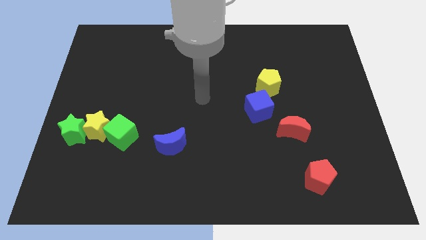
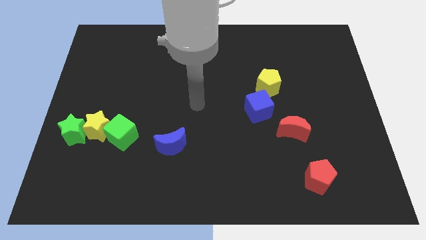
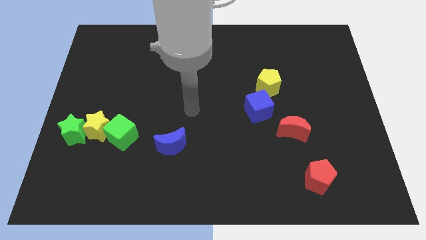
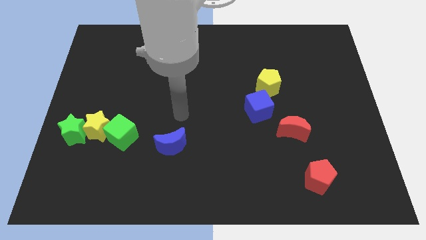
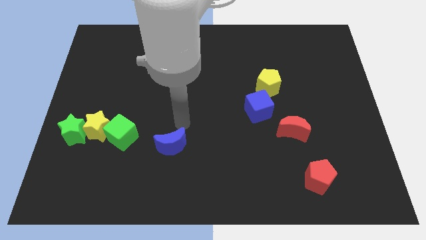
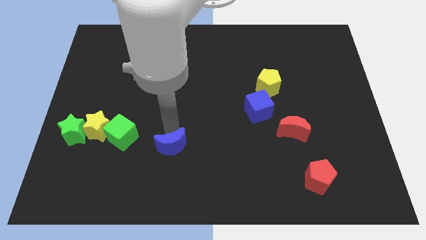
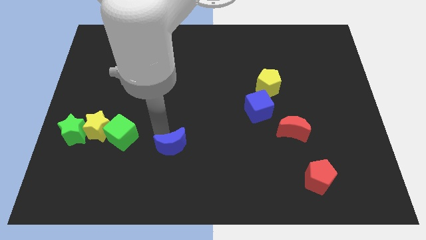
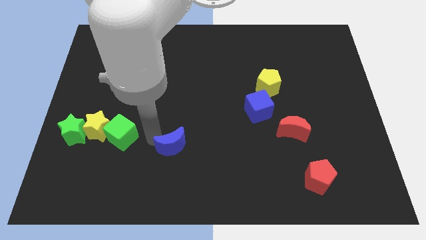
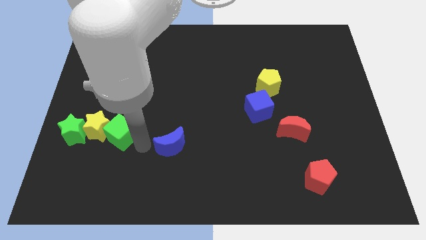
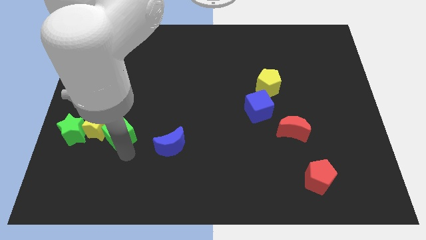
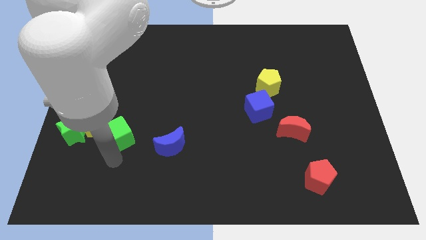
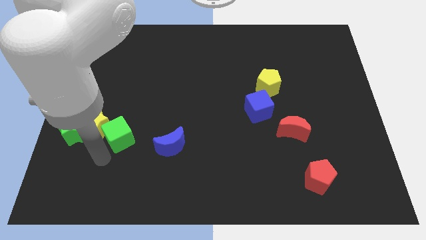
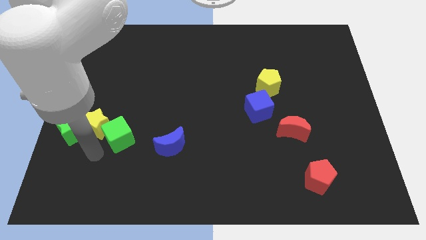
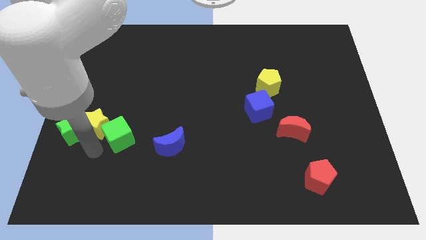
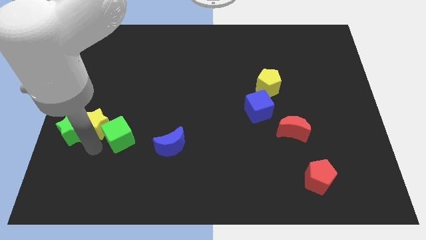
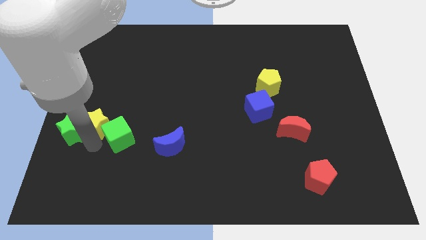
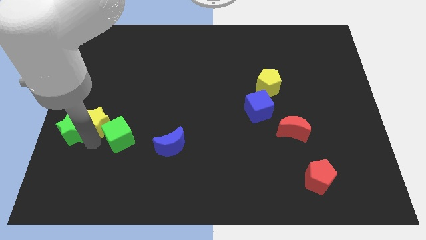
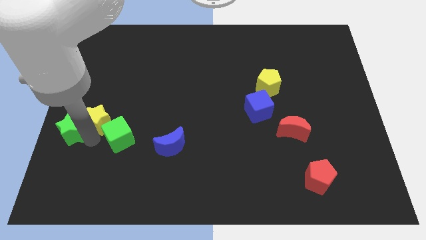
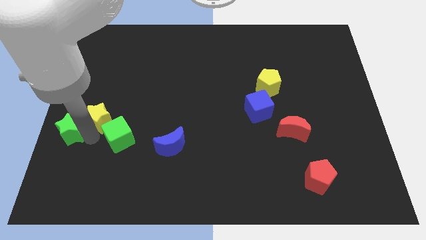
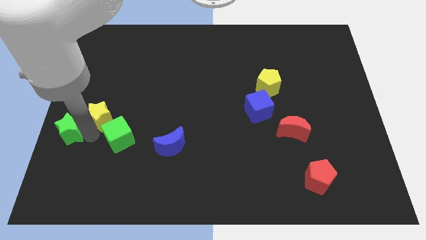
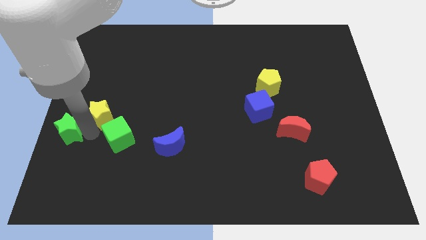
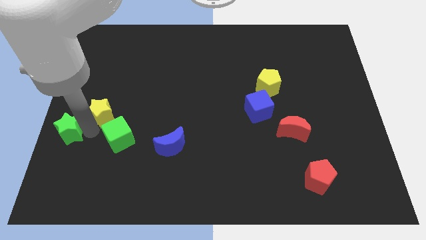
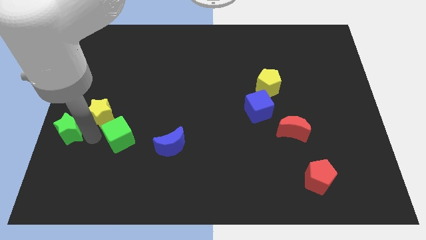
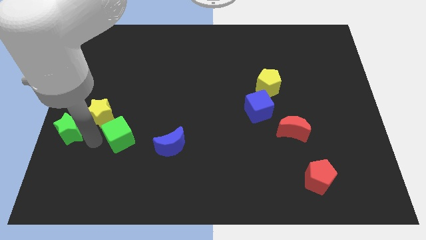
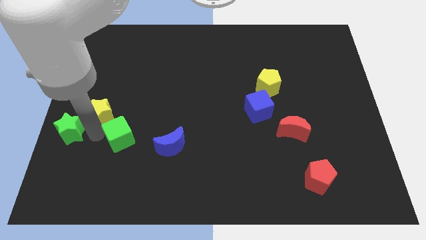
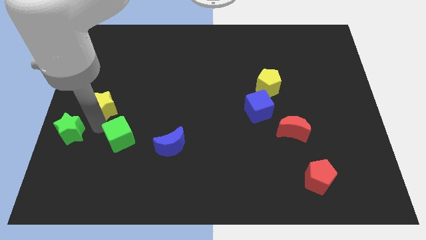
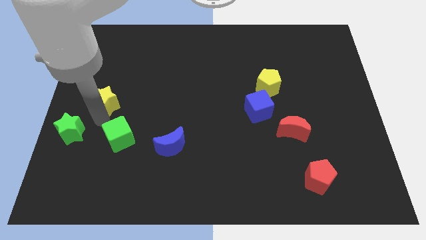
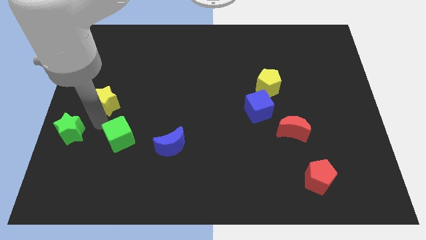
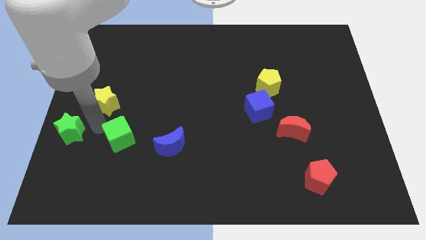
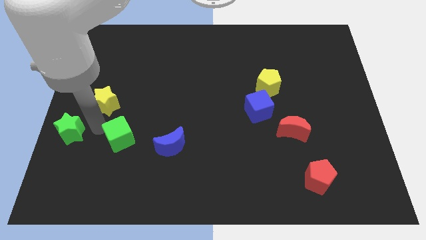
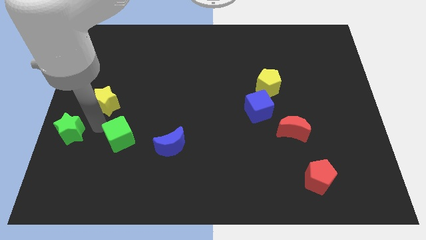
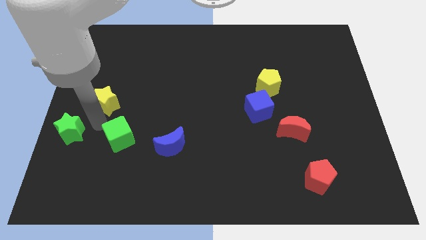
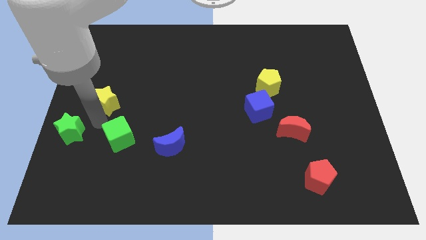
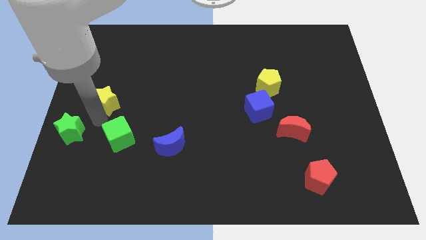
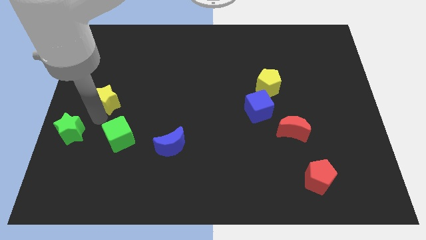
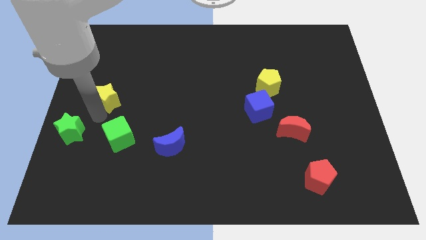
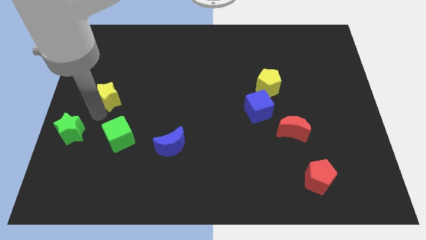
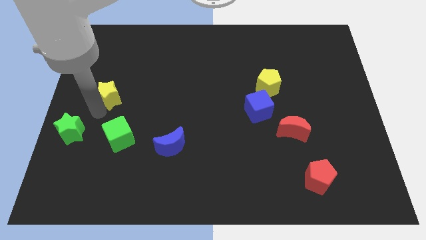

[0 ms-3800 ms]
separate the yellow star from the green star and green cube

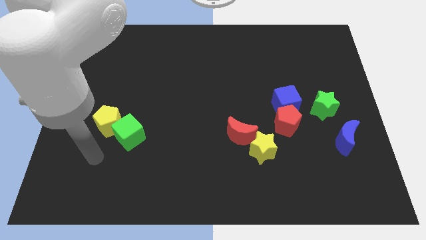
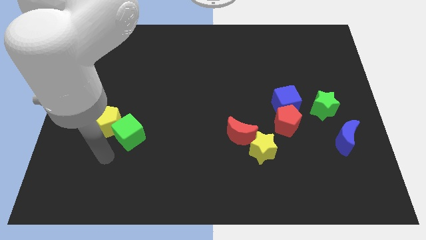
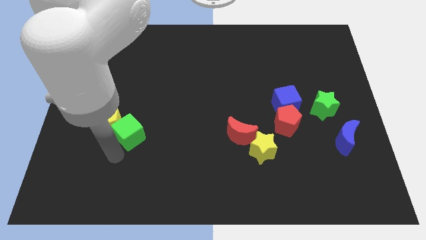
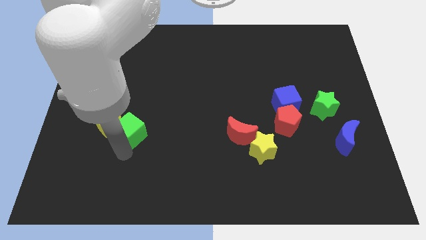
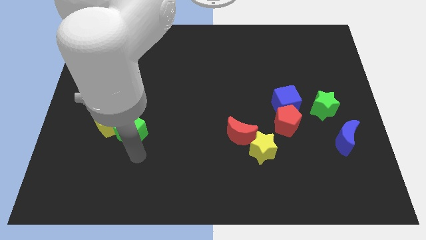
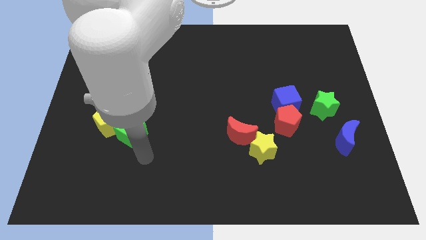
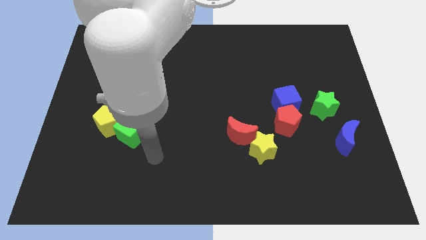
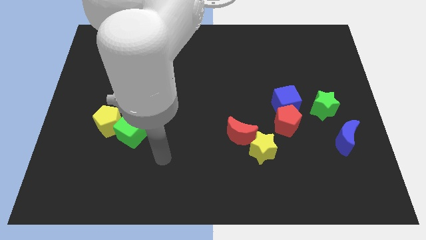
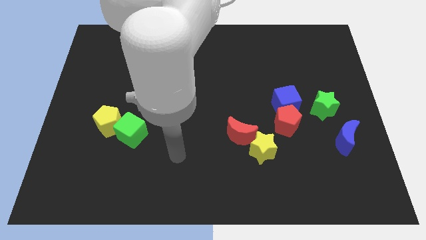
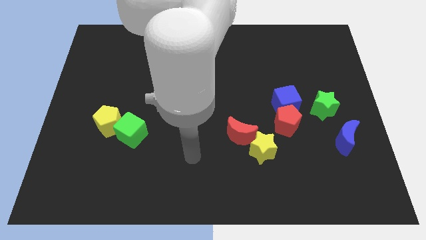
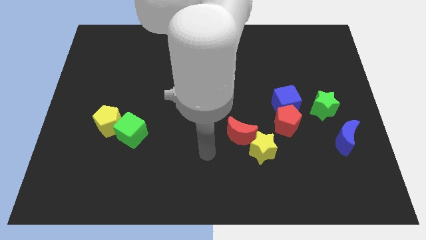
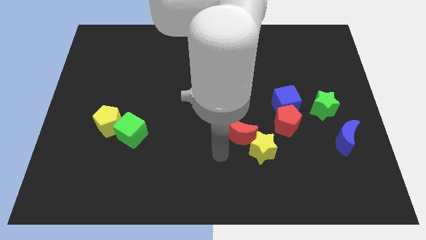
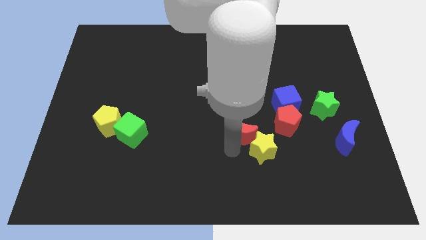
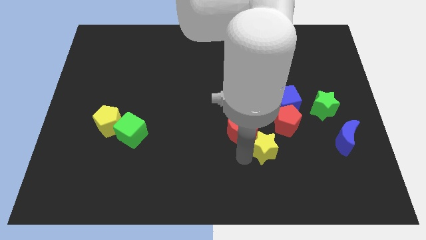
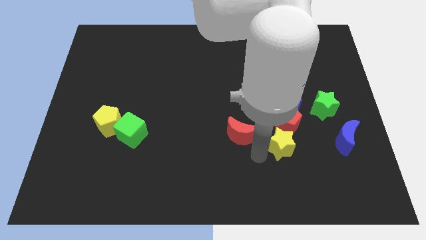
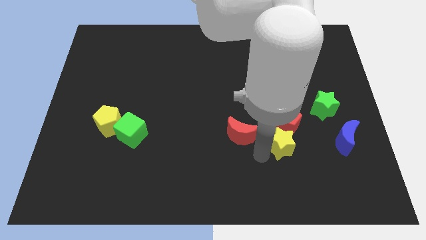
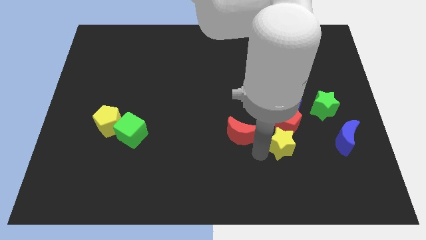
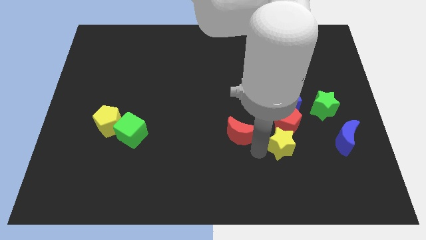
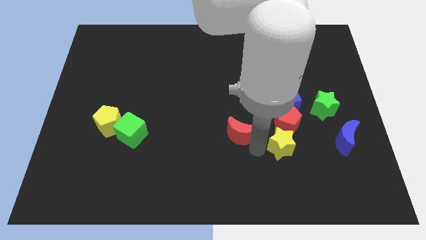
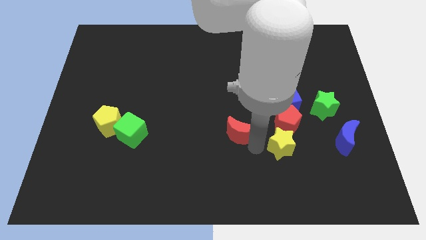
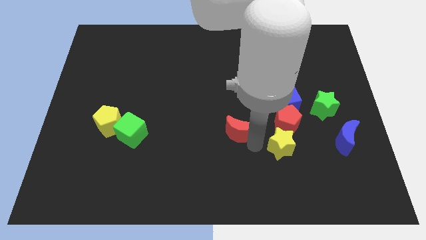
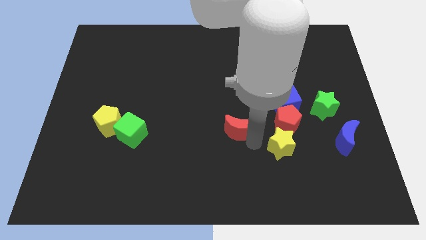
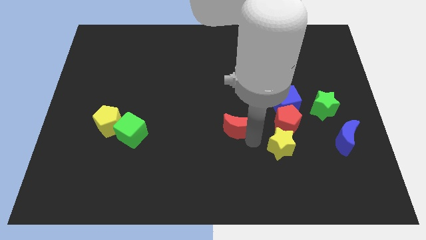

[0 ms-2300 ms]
move the red moon away from the yellow star

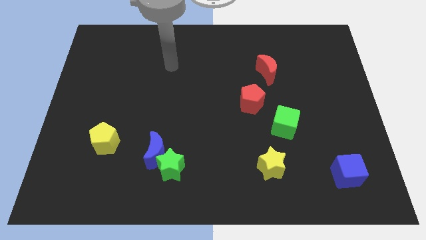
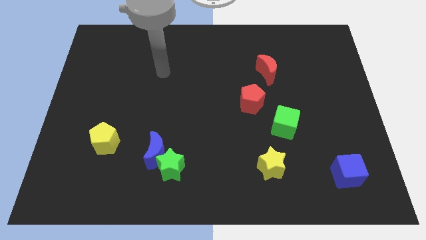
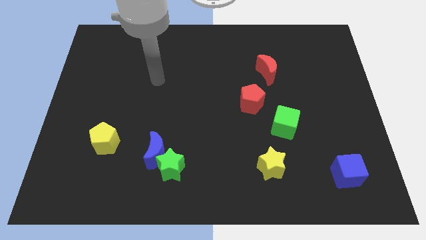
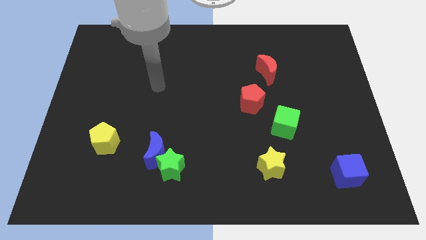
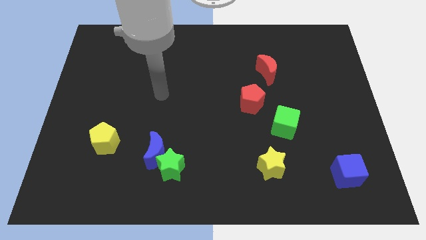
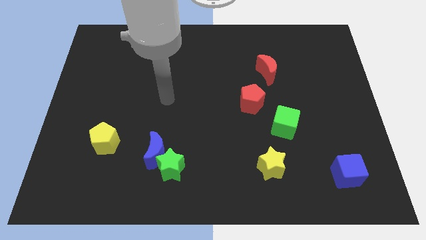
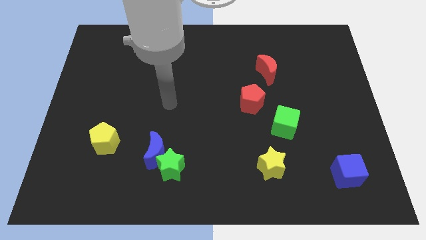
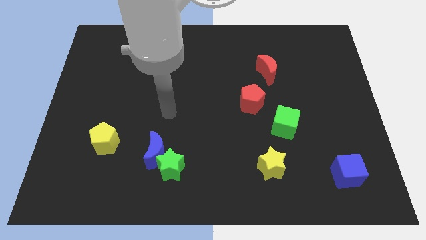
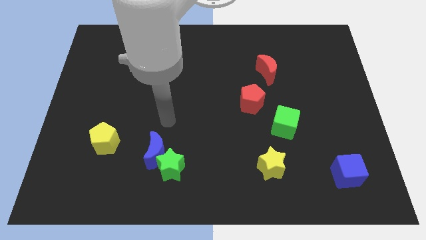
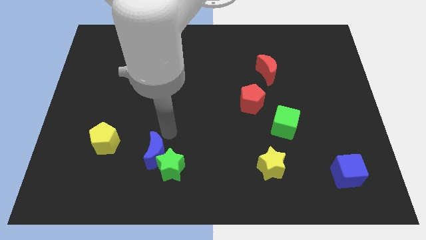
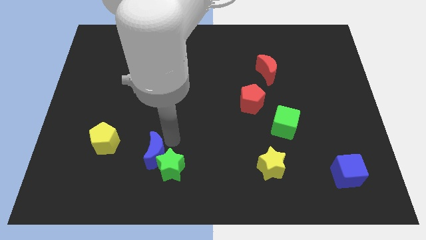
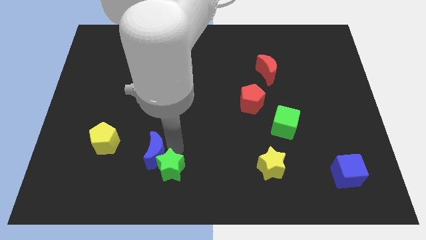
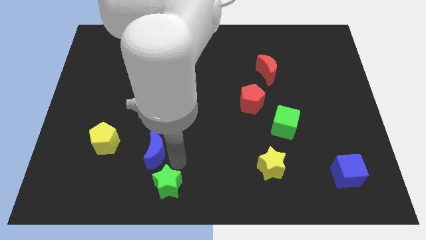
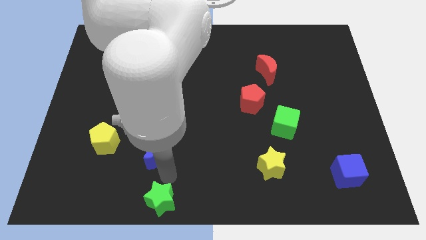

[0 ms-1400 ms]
separate the blue moon from the green star

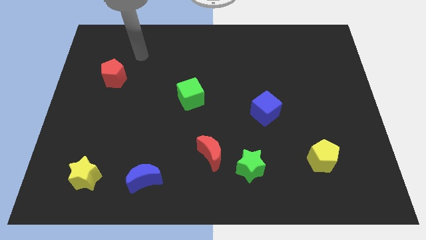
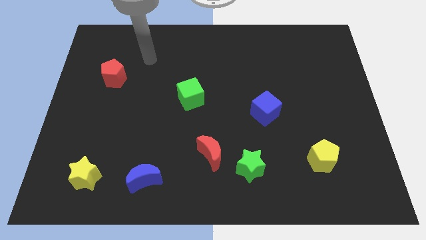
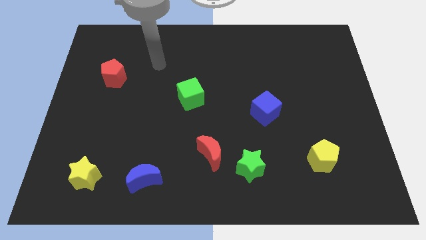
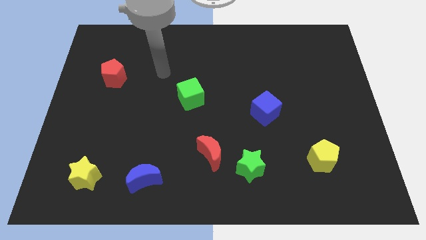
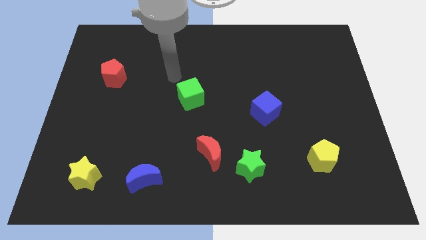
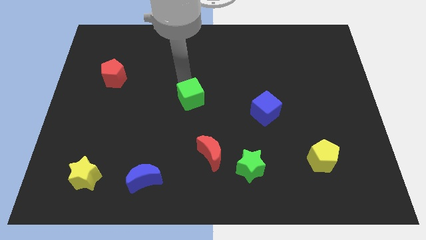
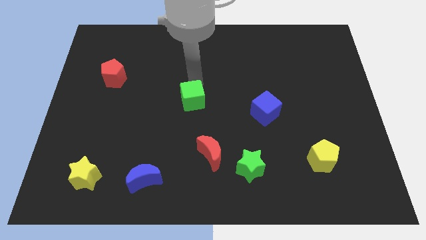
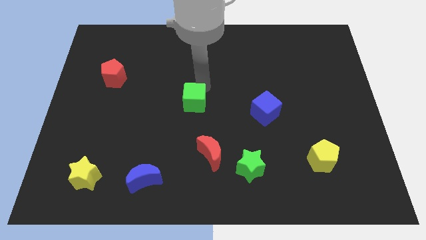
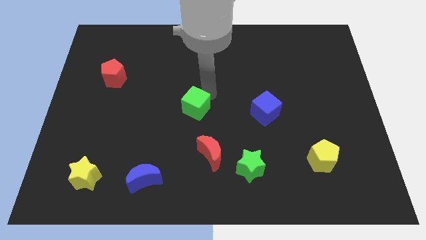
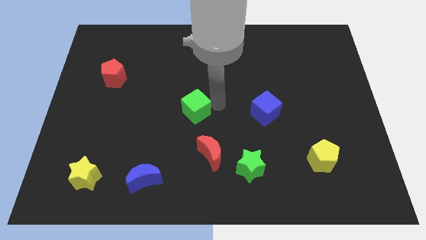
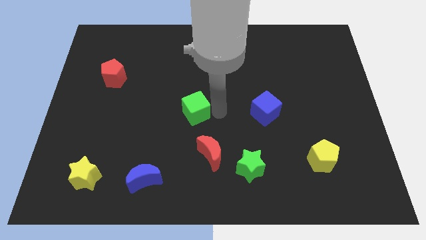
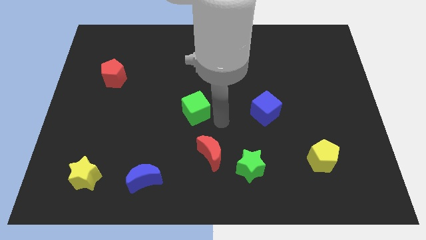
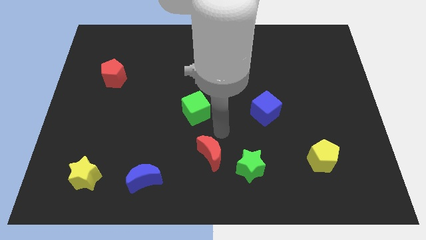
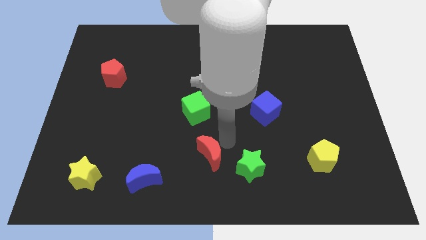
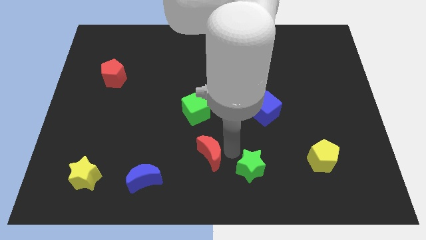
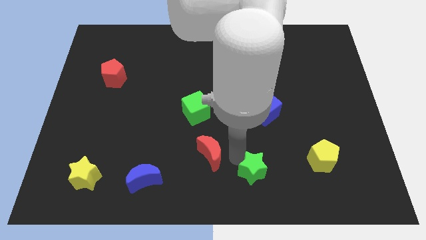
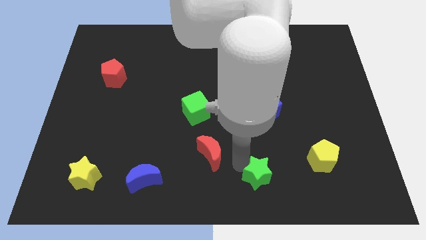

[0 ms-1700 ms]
pull the red moon apart from the green star
